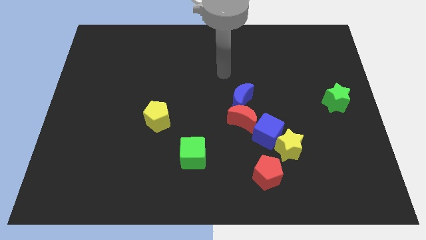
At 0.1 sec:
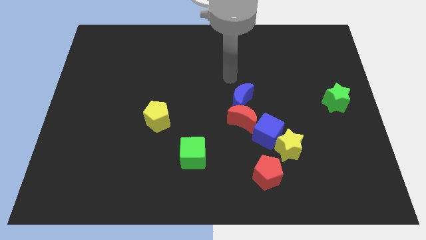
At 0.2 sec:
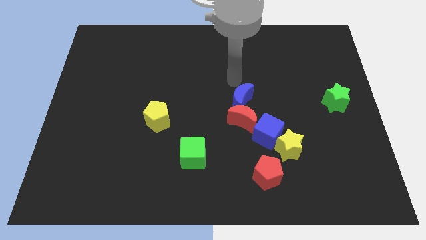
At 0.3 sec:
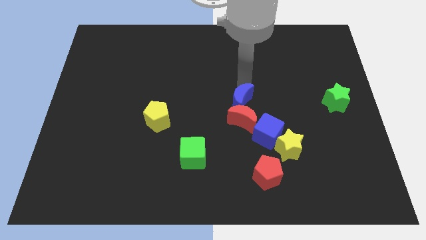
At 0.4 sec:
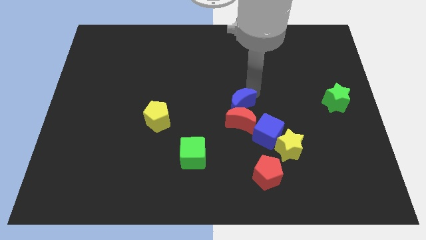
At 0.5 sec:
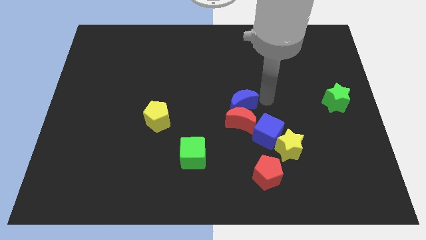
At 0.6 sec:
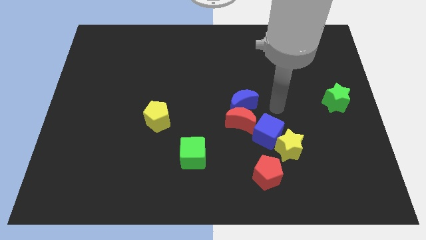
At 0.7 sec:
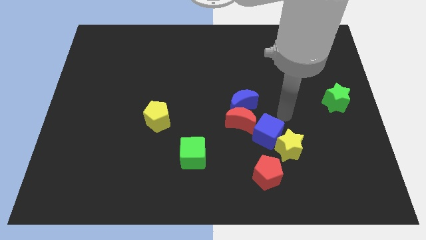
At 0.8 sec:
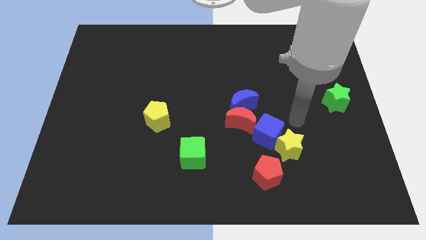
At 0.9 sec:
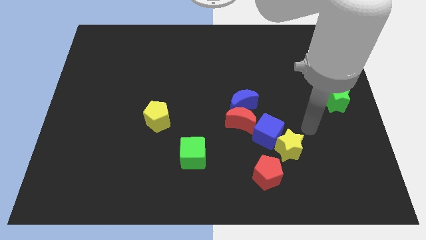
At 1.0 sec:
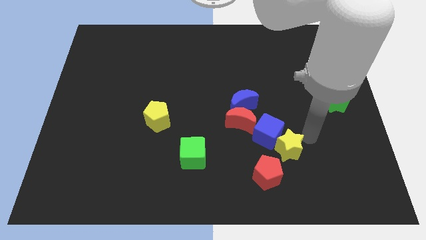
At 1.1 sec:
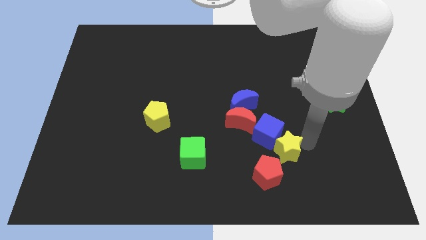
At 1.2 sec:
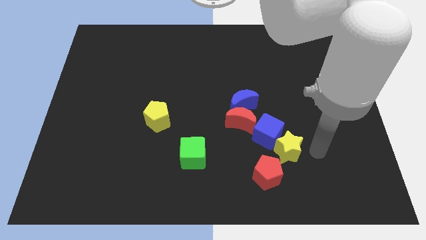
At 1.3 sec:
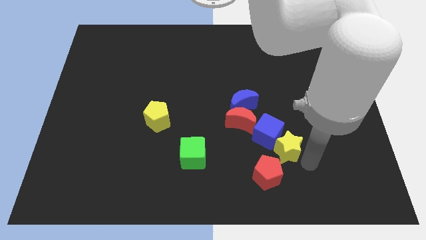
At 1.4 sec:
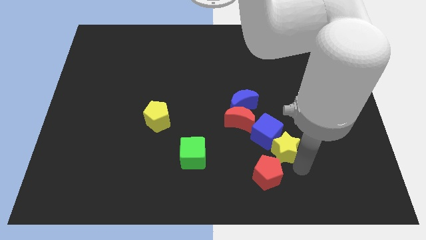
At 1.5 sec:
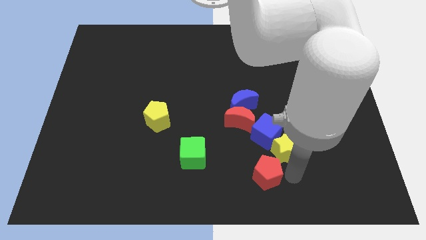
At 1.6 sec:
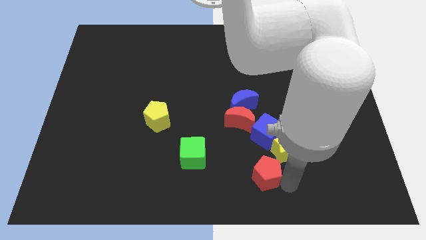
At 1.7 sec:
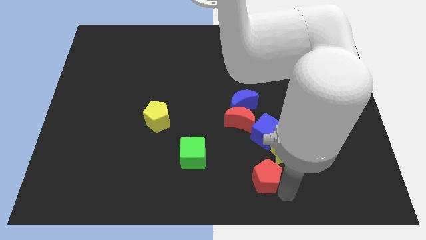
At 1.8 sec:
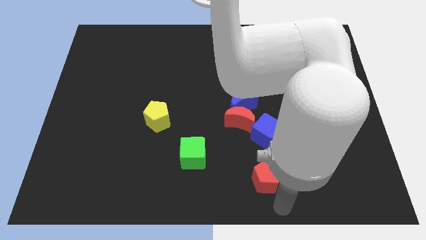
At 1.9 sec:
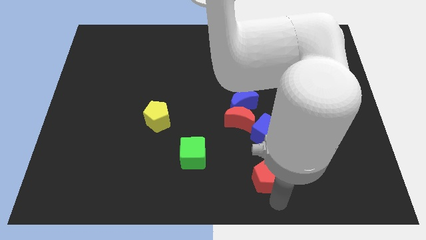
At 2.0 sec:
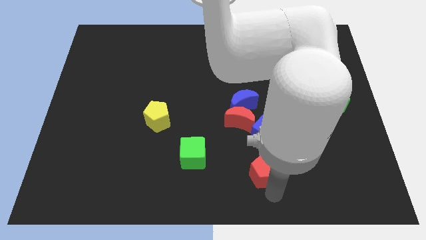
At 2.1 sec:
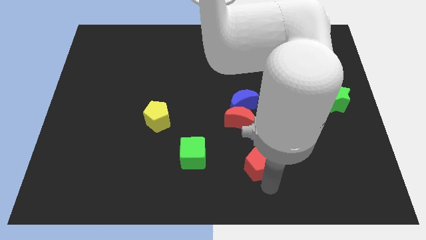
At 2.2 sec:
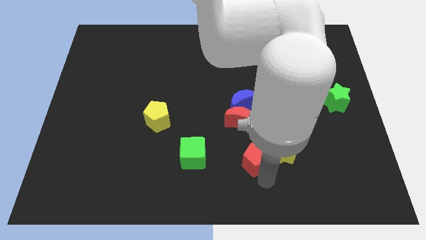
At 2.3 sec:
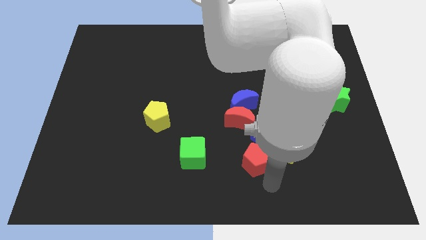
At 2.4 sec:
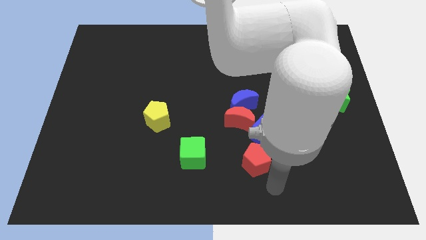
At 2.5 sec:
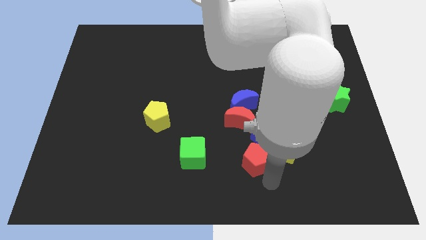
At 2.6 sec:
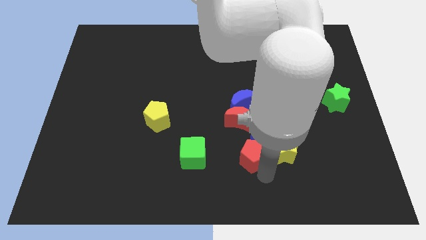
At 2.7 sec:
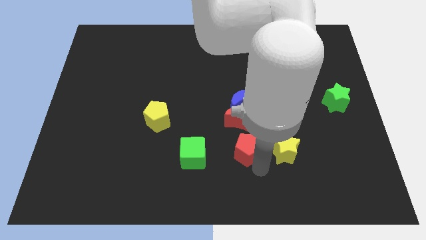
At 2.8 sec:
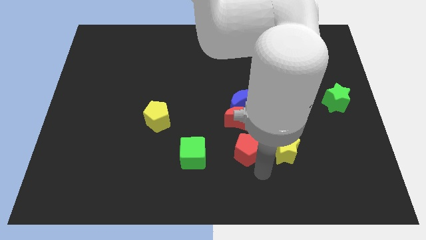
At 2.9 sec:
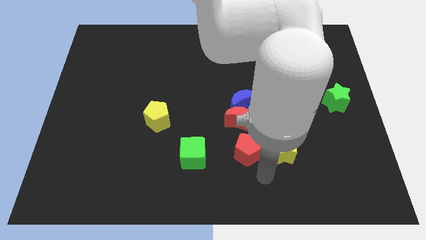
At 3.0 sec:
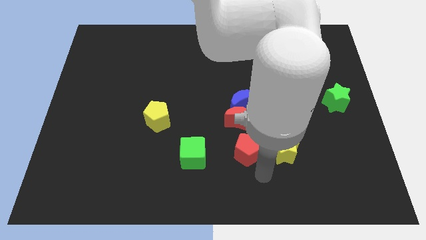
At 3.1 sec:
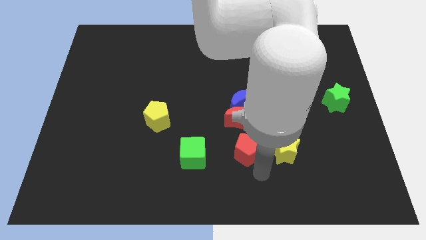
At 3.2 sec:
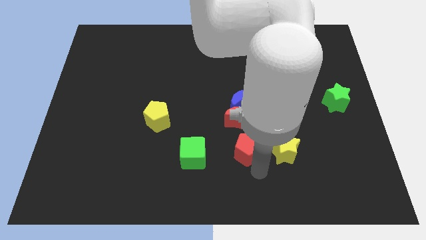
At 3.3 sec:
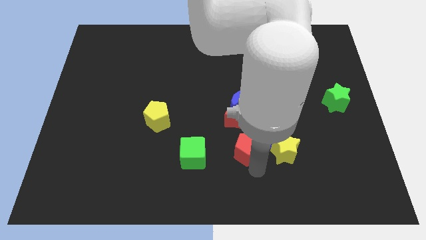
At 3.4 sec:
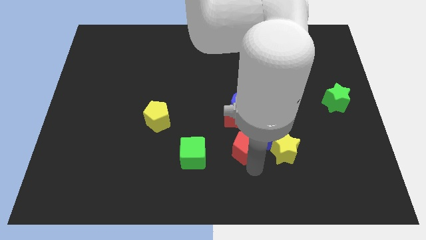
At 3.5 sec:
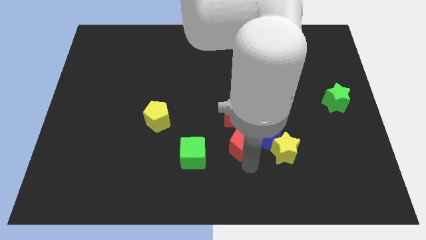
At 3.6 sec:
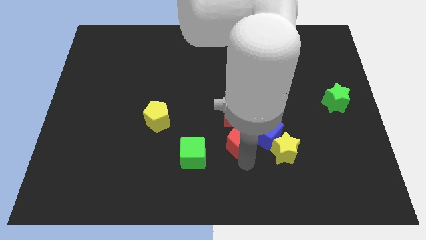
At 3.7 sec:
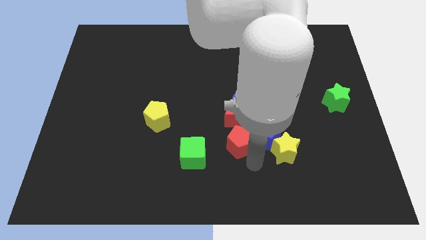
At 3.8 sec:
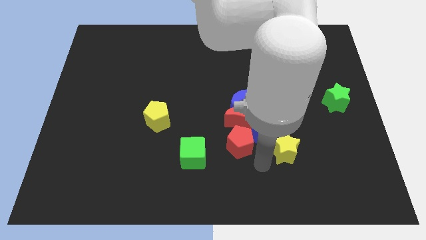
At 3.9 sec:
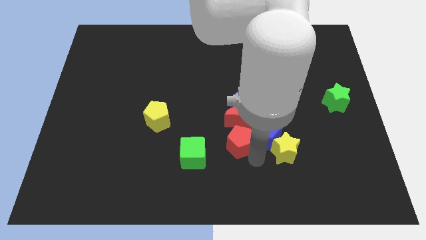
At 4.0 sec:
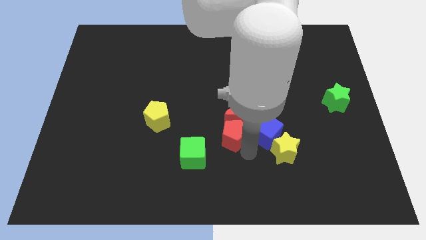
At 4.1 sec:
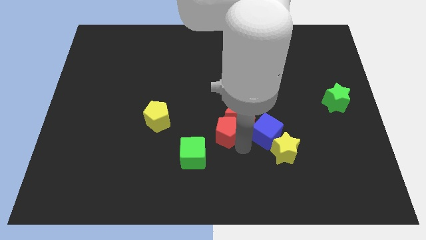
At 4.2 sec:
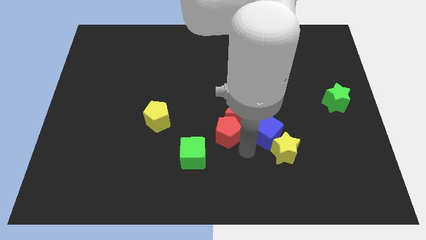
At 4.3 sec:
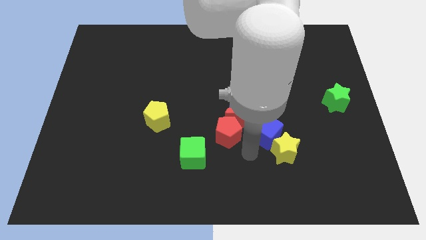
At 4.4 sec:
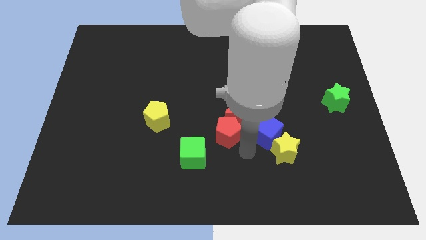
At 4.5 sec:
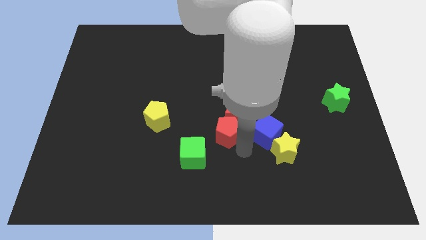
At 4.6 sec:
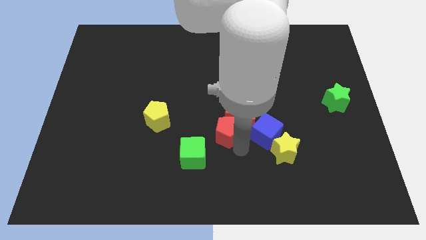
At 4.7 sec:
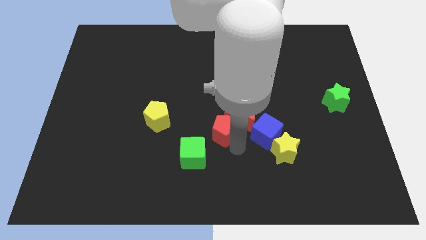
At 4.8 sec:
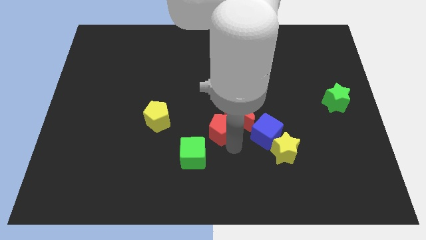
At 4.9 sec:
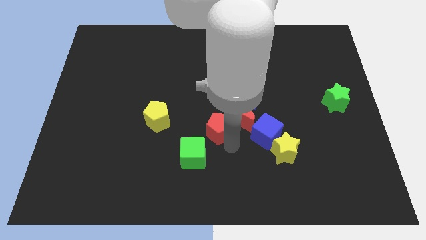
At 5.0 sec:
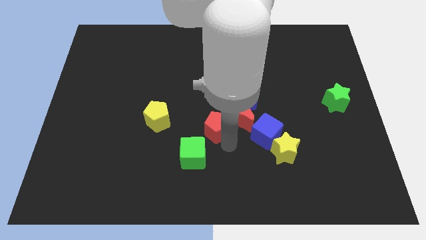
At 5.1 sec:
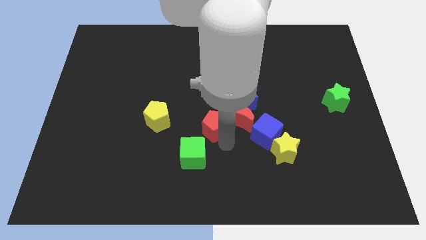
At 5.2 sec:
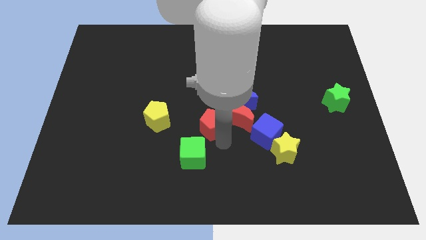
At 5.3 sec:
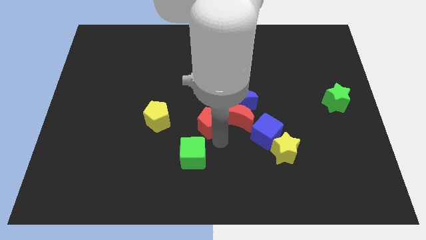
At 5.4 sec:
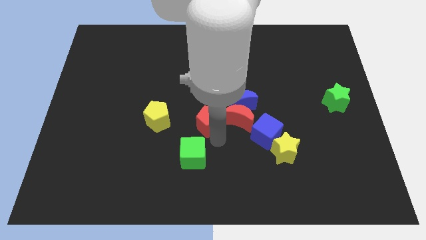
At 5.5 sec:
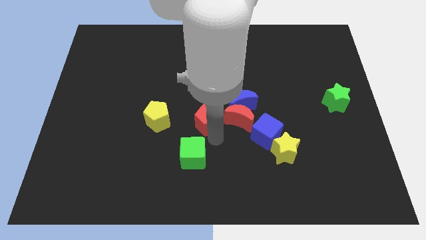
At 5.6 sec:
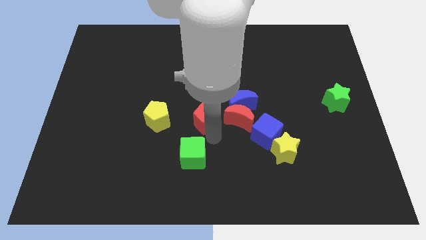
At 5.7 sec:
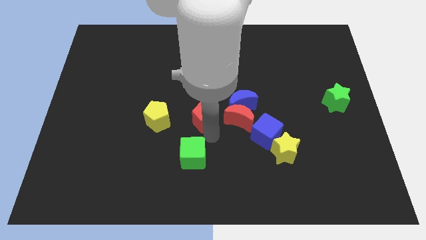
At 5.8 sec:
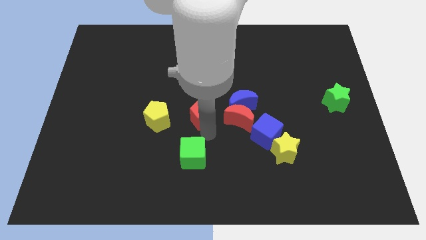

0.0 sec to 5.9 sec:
slide the red pentagon upwards and then to the left

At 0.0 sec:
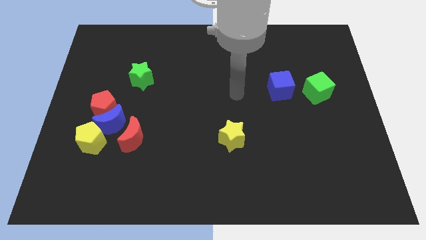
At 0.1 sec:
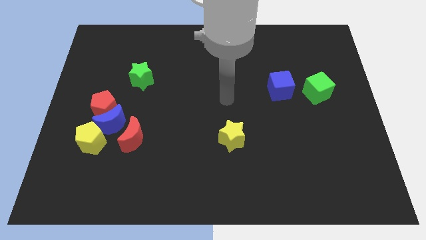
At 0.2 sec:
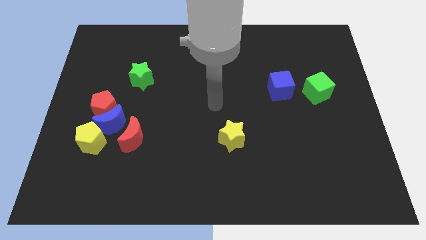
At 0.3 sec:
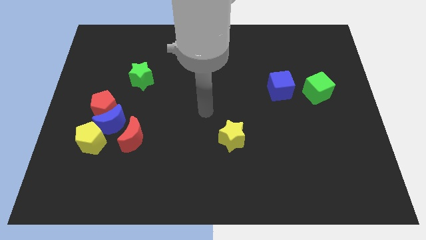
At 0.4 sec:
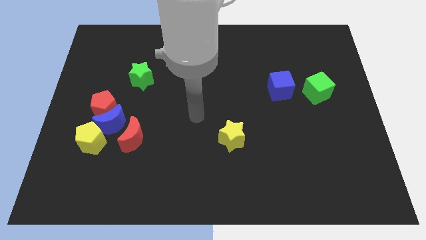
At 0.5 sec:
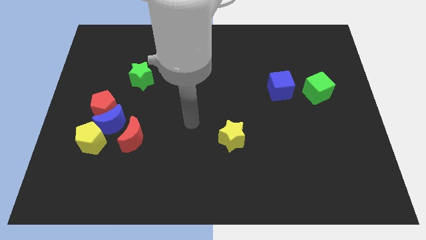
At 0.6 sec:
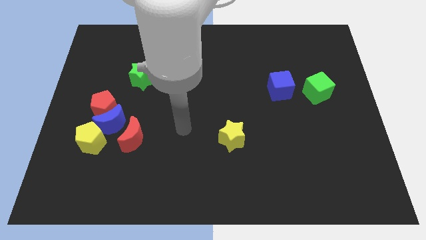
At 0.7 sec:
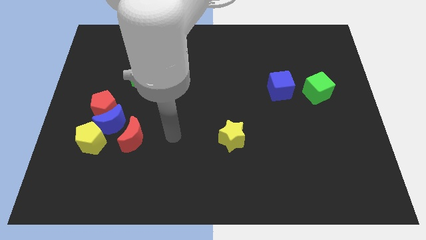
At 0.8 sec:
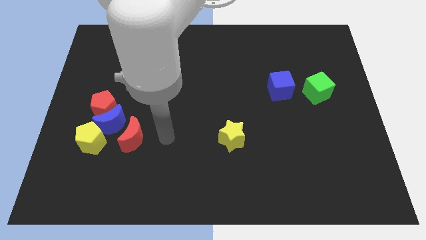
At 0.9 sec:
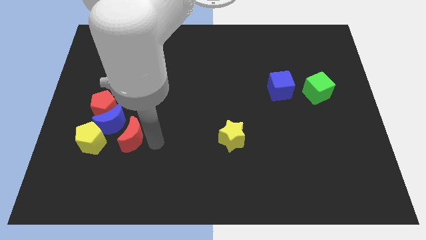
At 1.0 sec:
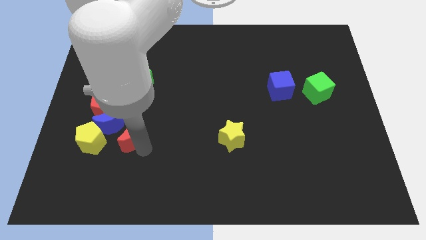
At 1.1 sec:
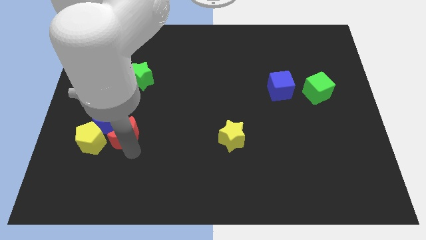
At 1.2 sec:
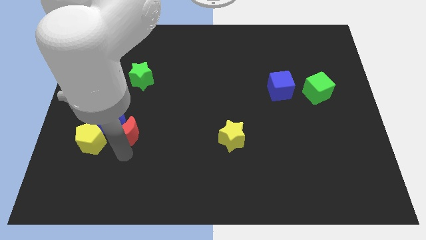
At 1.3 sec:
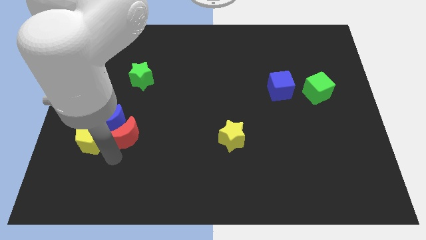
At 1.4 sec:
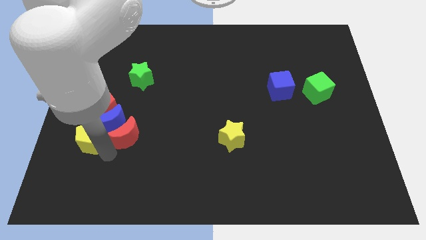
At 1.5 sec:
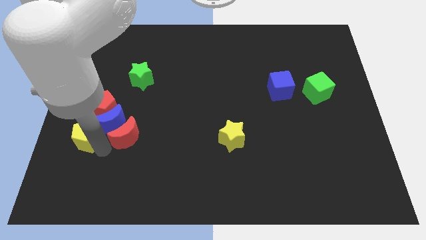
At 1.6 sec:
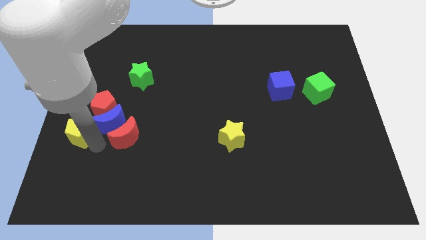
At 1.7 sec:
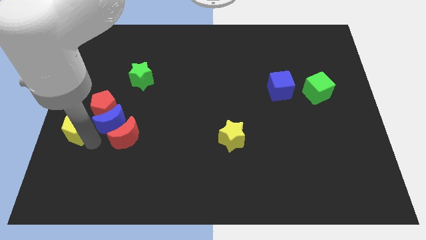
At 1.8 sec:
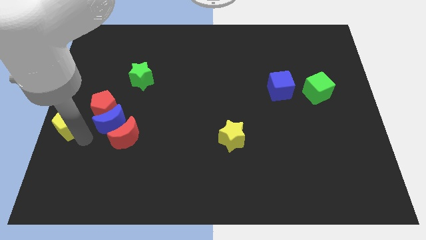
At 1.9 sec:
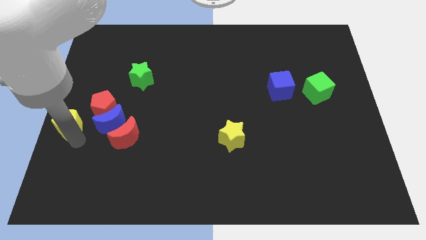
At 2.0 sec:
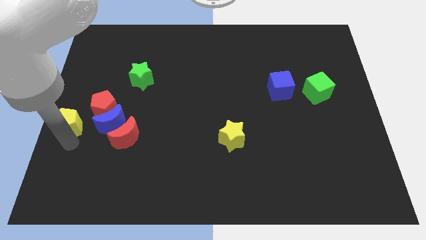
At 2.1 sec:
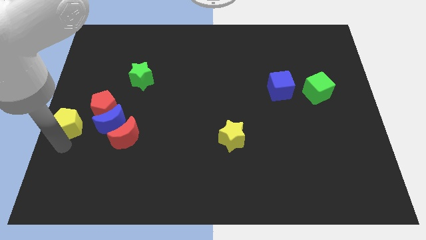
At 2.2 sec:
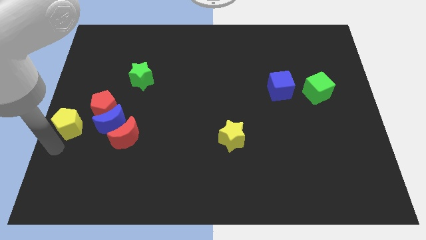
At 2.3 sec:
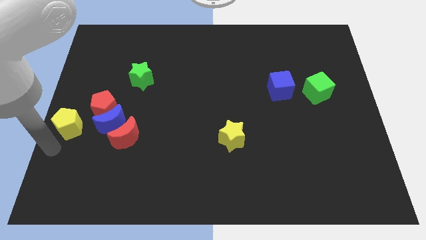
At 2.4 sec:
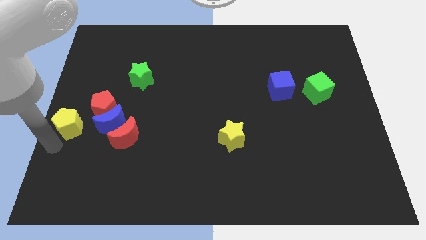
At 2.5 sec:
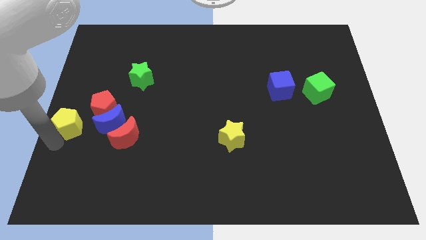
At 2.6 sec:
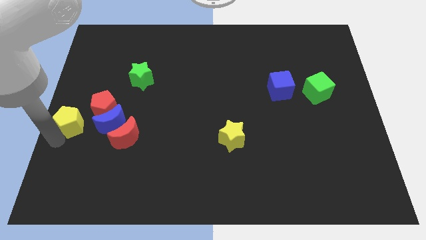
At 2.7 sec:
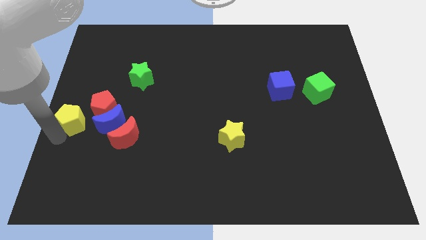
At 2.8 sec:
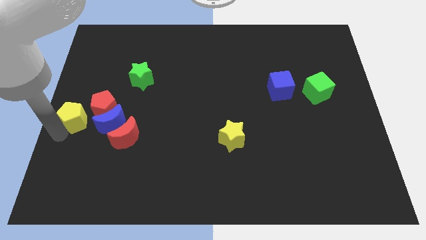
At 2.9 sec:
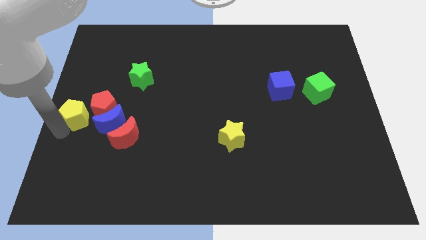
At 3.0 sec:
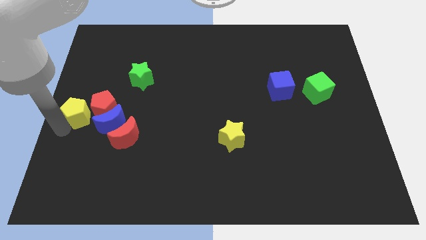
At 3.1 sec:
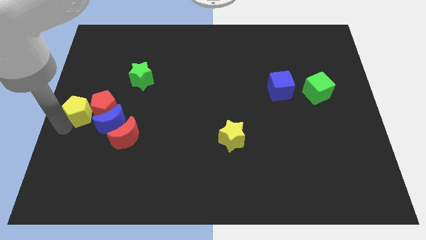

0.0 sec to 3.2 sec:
push the yellow pentagon up a little
